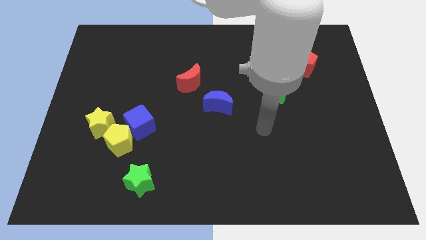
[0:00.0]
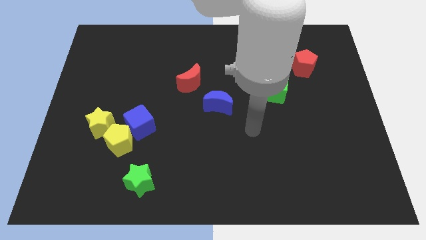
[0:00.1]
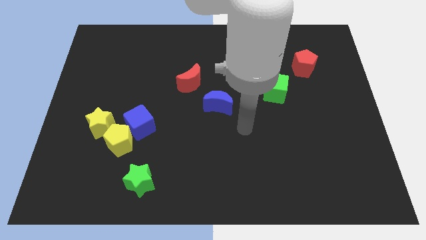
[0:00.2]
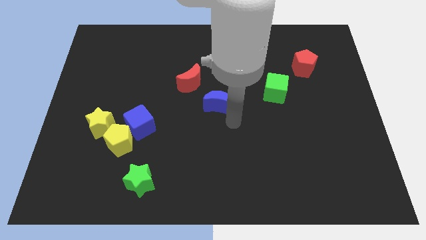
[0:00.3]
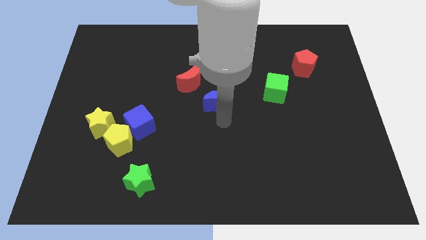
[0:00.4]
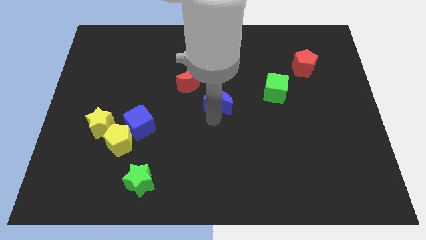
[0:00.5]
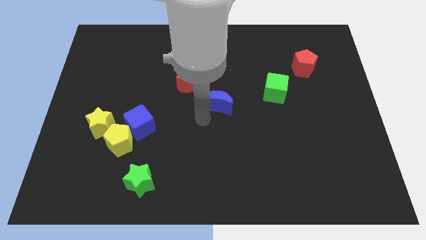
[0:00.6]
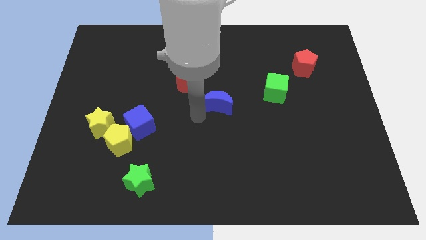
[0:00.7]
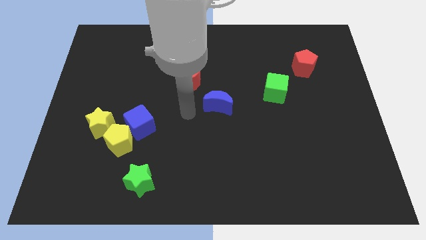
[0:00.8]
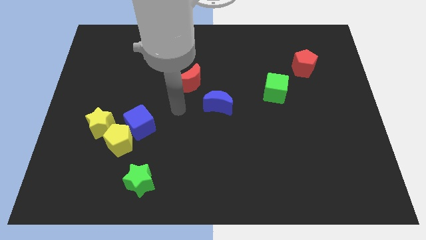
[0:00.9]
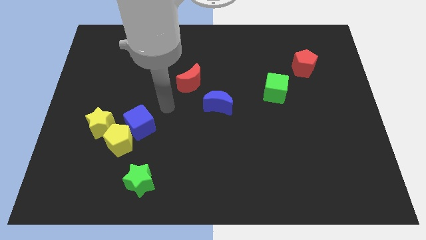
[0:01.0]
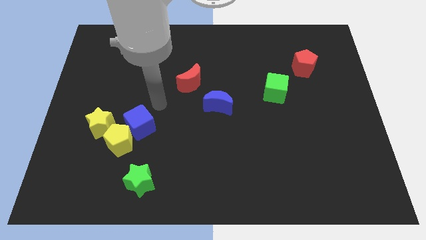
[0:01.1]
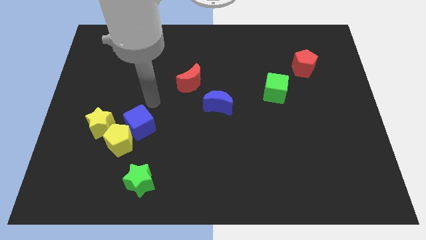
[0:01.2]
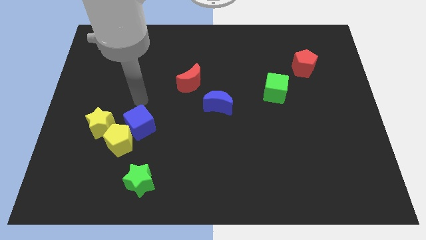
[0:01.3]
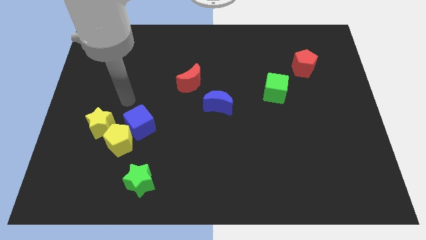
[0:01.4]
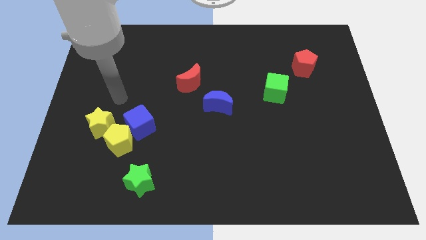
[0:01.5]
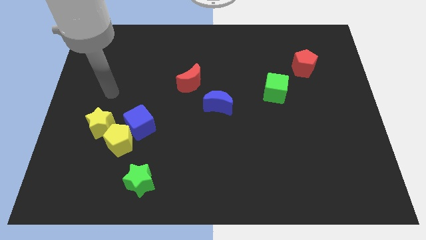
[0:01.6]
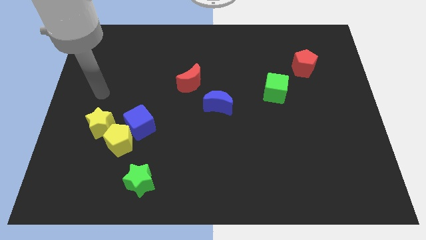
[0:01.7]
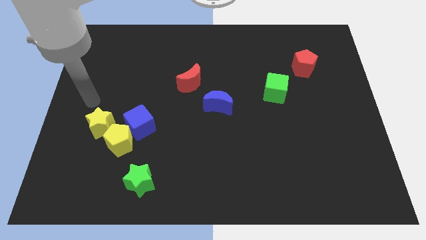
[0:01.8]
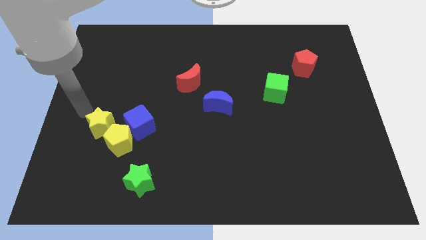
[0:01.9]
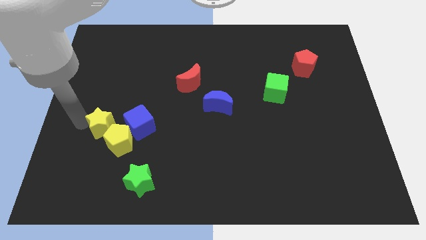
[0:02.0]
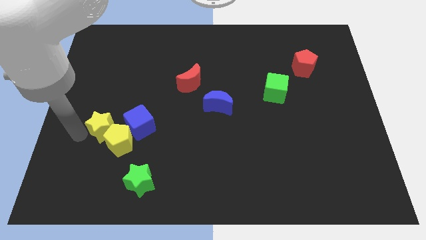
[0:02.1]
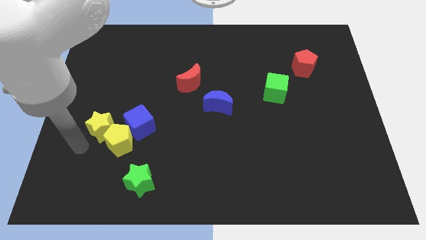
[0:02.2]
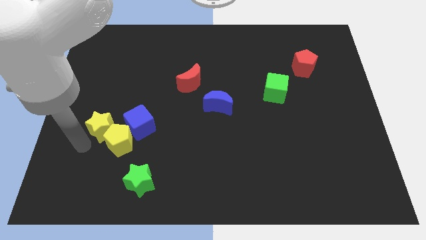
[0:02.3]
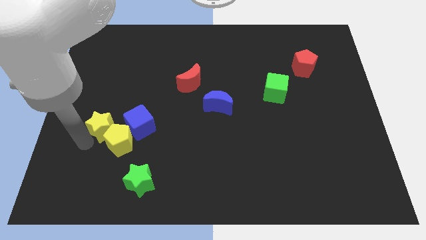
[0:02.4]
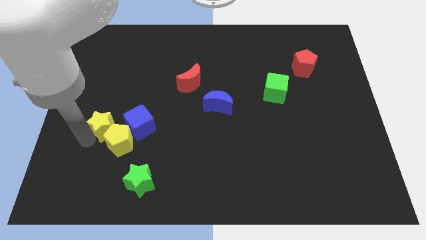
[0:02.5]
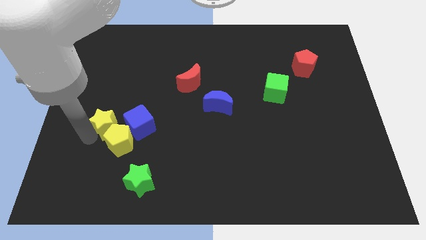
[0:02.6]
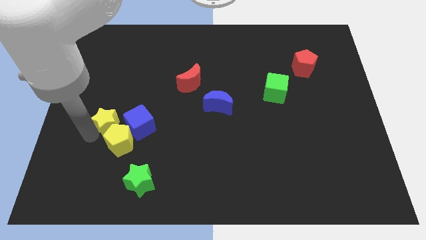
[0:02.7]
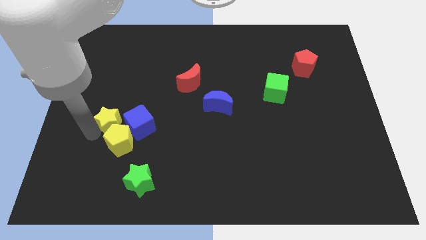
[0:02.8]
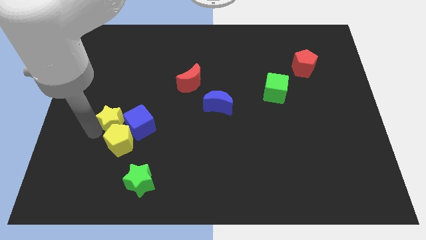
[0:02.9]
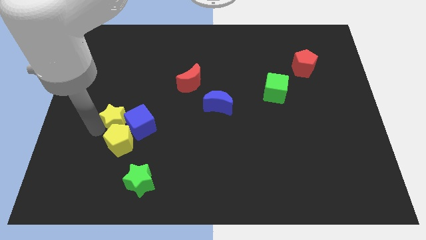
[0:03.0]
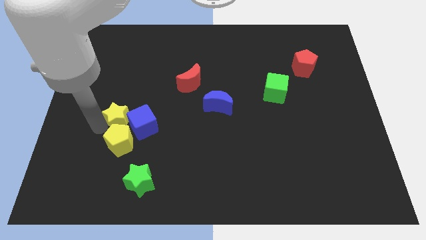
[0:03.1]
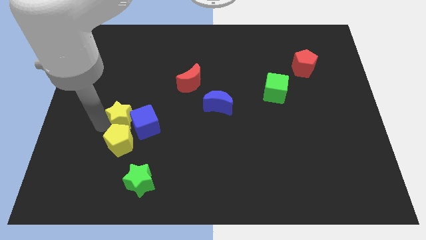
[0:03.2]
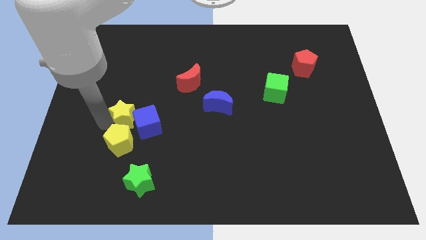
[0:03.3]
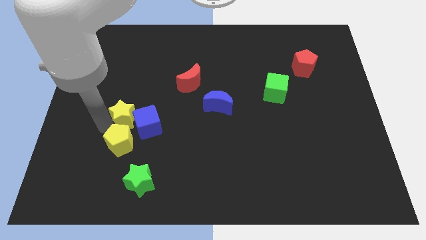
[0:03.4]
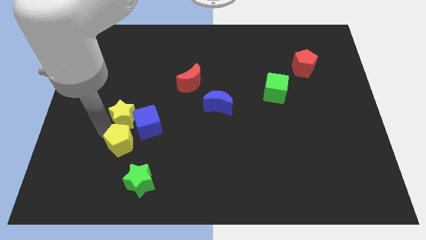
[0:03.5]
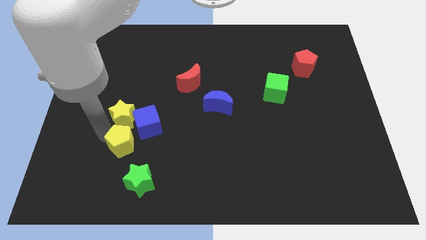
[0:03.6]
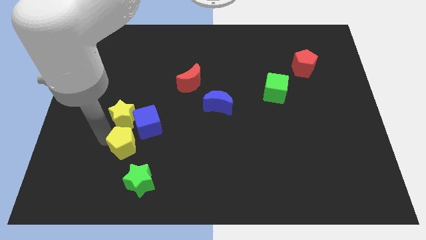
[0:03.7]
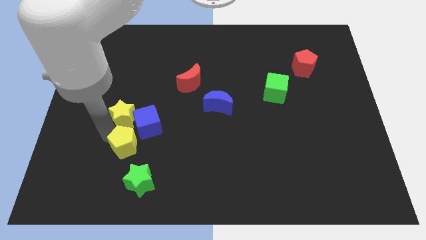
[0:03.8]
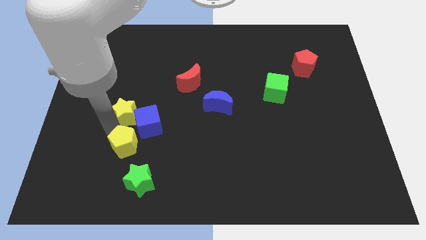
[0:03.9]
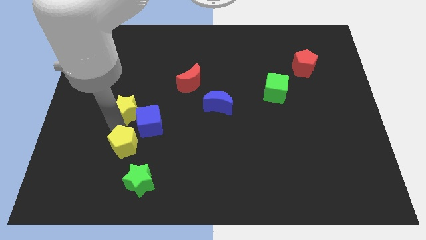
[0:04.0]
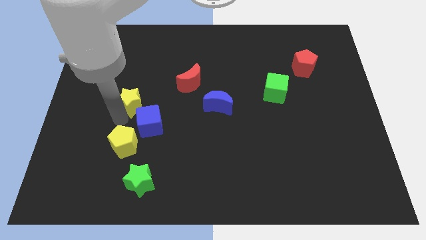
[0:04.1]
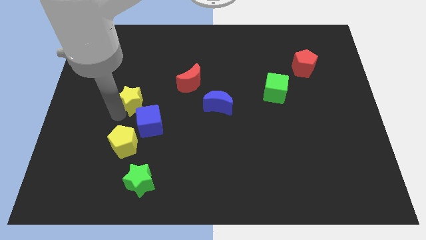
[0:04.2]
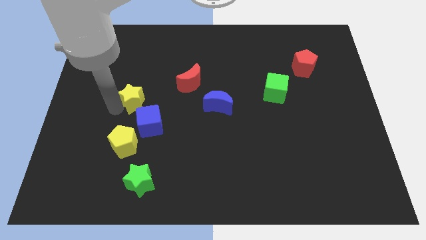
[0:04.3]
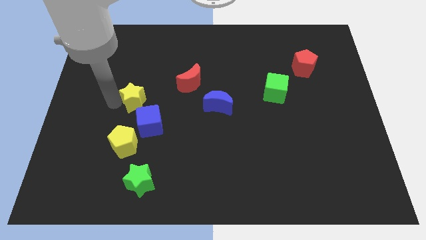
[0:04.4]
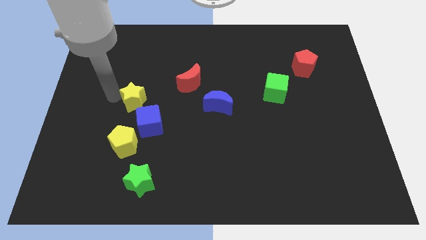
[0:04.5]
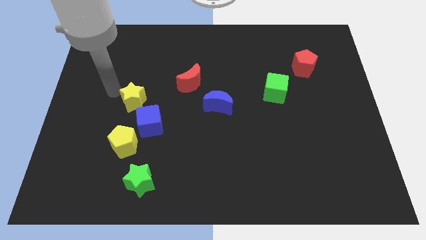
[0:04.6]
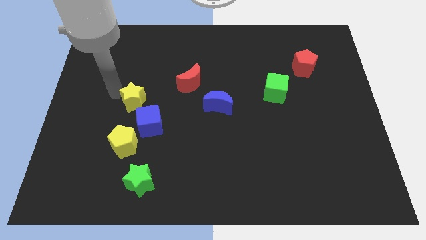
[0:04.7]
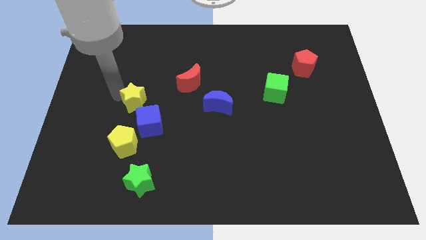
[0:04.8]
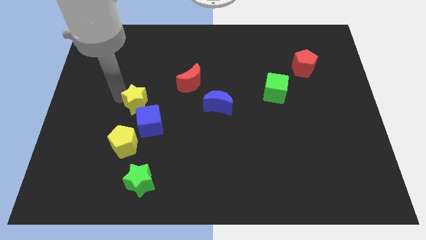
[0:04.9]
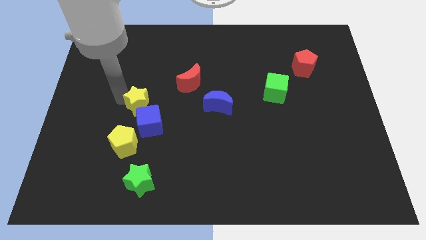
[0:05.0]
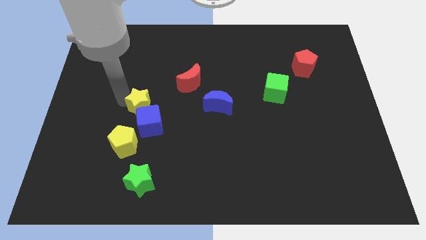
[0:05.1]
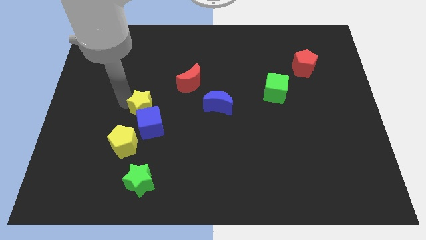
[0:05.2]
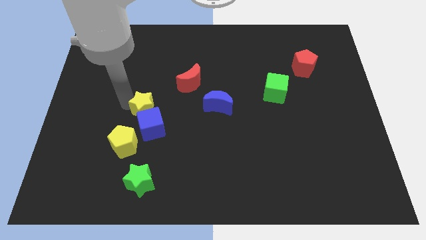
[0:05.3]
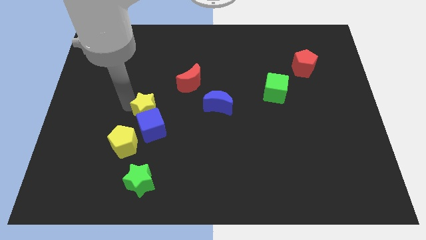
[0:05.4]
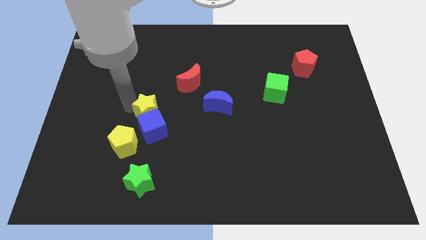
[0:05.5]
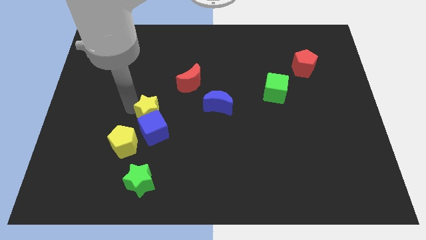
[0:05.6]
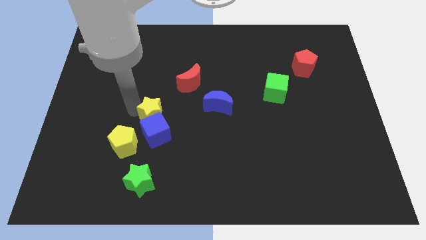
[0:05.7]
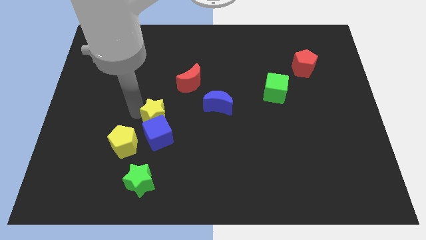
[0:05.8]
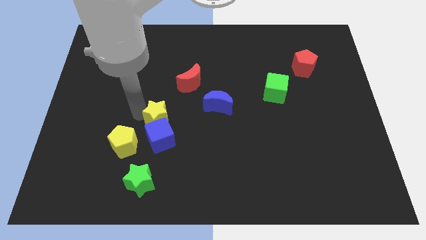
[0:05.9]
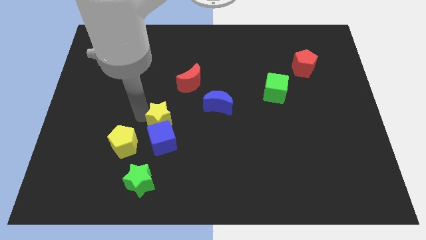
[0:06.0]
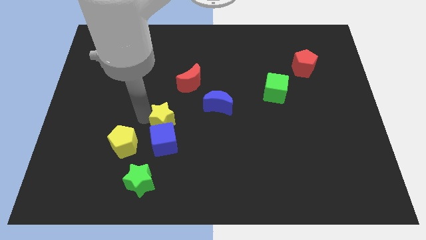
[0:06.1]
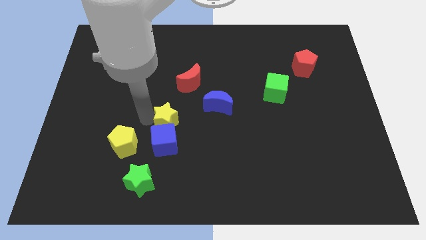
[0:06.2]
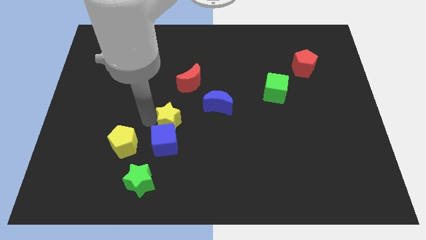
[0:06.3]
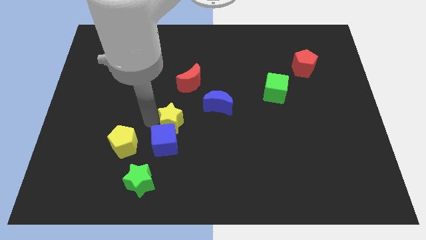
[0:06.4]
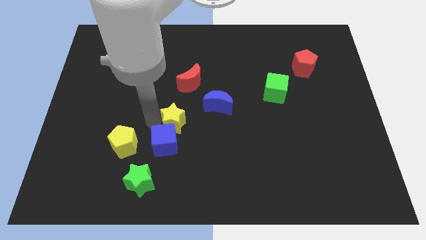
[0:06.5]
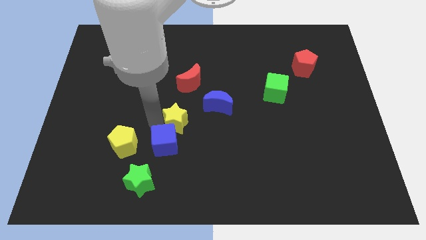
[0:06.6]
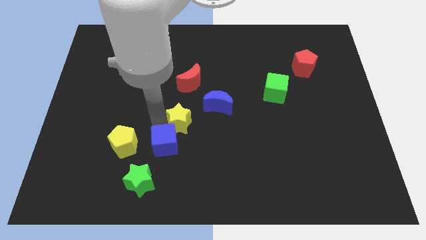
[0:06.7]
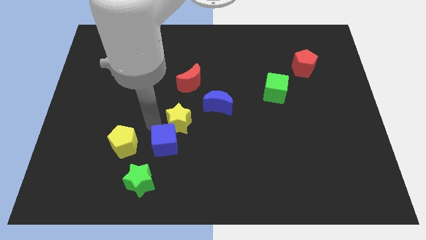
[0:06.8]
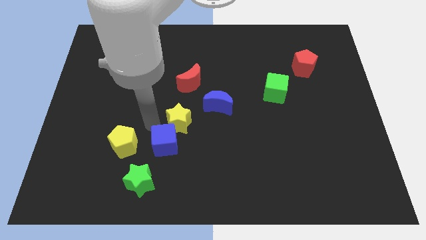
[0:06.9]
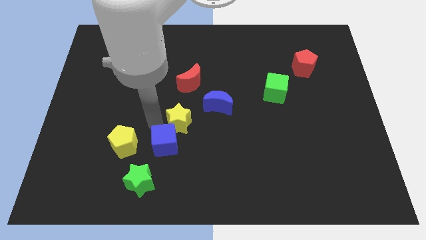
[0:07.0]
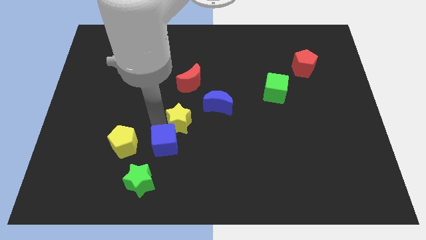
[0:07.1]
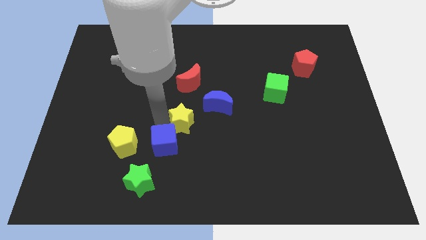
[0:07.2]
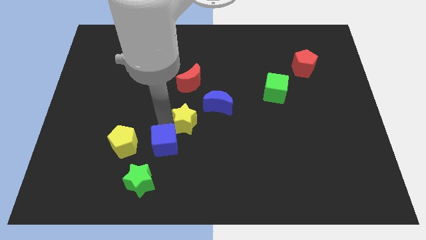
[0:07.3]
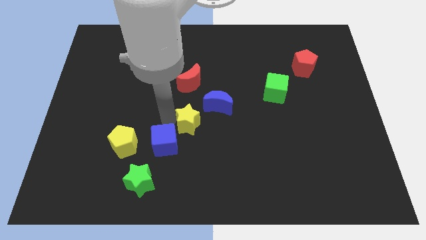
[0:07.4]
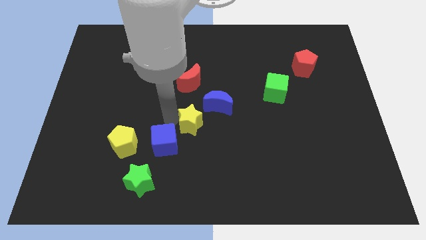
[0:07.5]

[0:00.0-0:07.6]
move the yellow star right

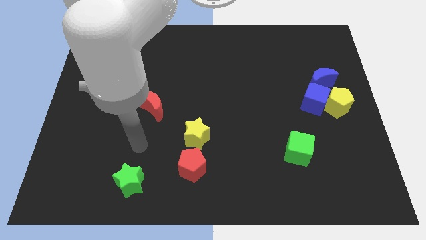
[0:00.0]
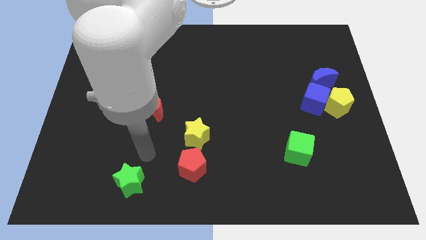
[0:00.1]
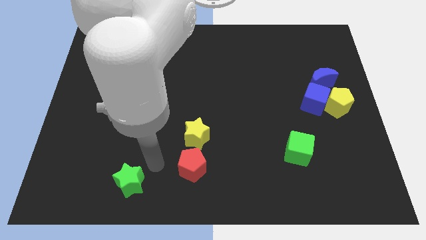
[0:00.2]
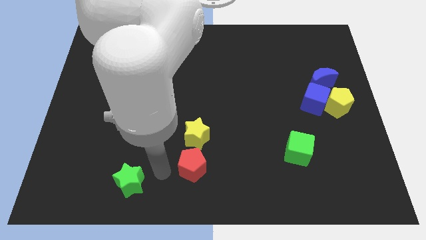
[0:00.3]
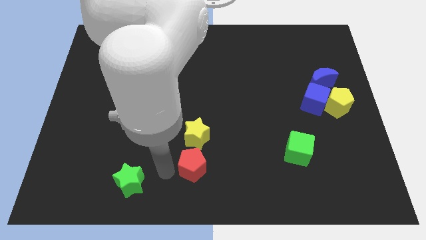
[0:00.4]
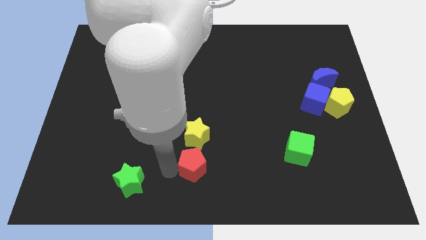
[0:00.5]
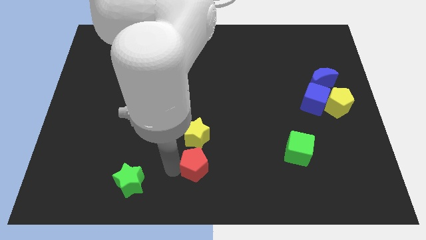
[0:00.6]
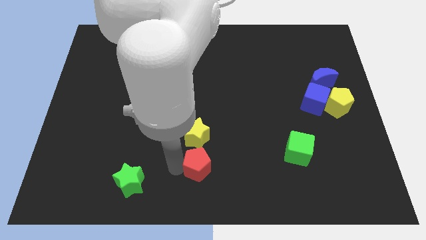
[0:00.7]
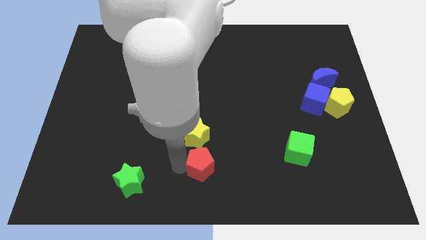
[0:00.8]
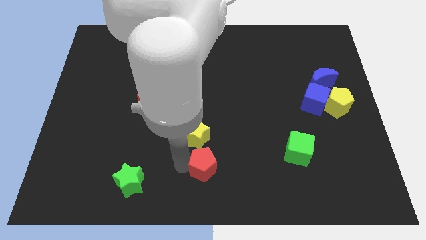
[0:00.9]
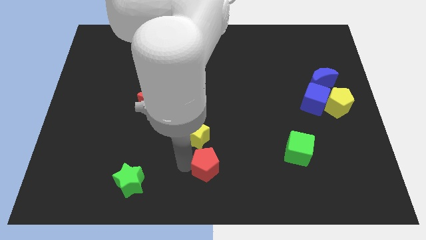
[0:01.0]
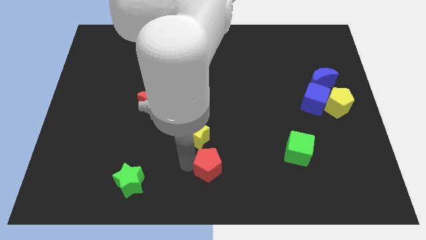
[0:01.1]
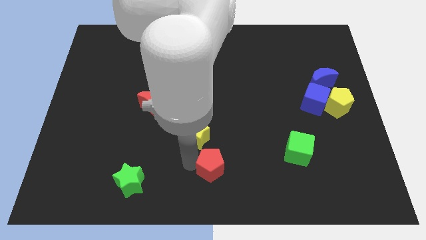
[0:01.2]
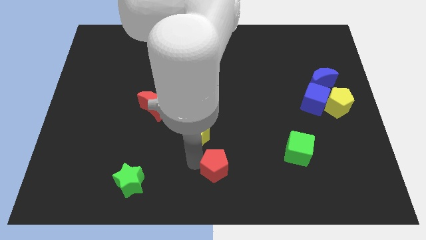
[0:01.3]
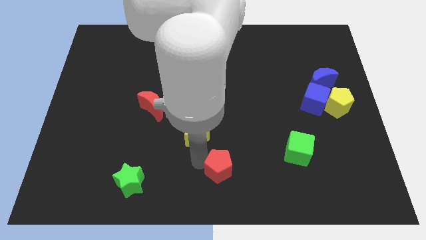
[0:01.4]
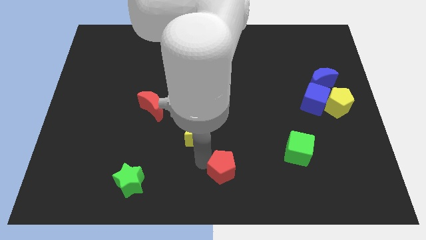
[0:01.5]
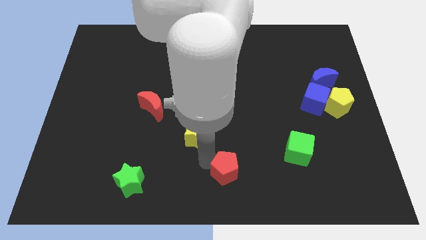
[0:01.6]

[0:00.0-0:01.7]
slightly push the red pentagon right
